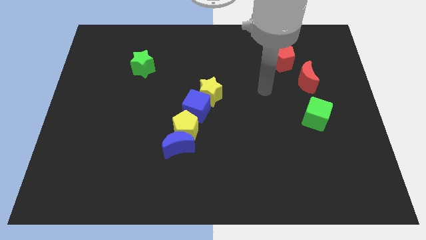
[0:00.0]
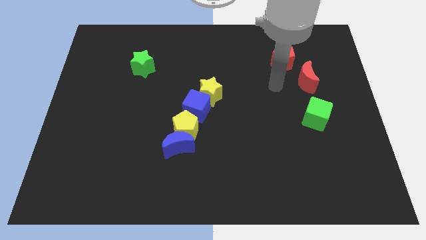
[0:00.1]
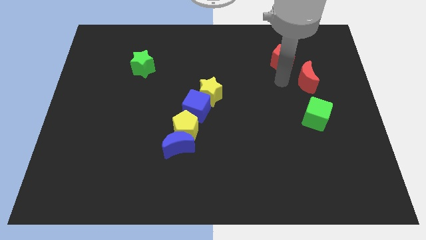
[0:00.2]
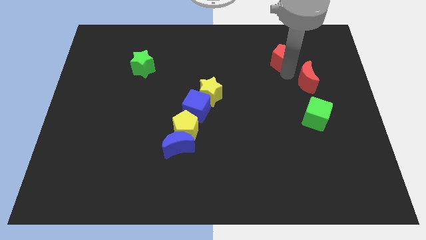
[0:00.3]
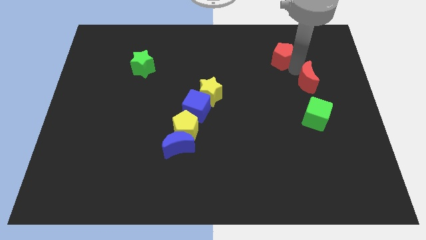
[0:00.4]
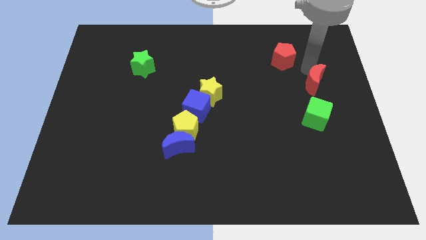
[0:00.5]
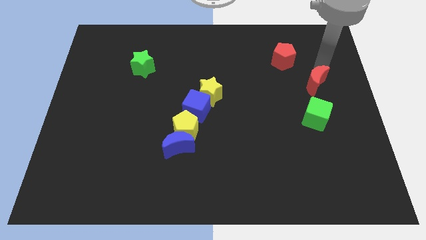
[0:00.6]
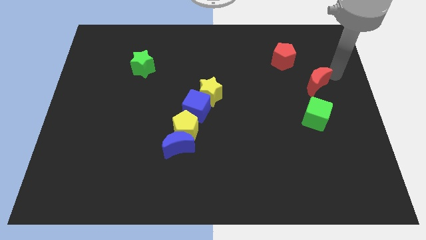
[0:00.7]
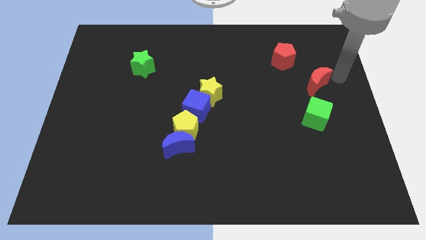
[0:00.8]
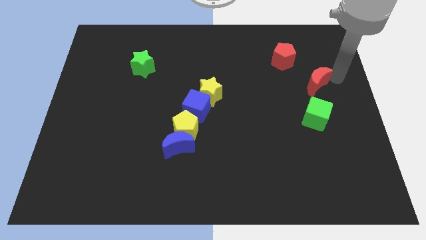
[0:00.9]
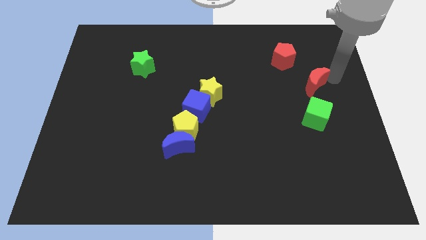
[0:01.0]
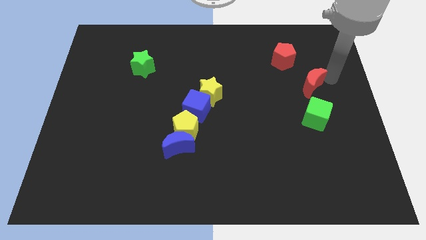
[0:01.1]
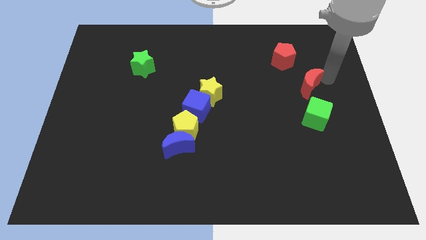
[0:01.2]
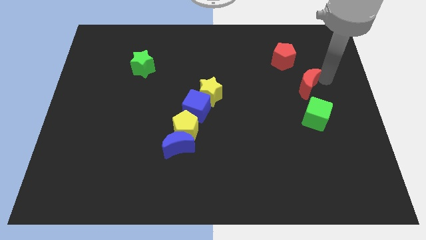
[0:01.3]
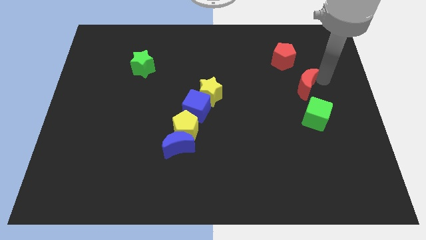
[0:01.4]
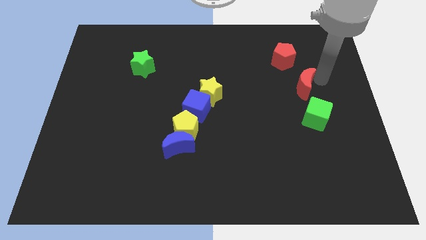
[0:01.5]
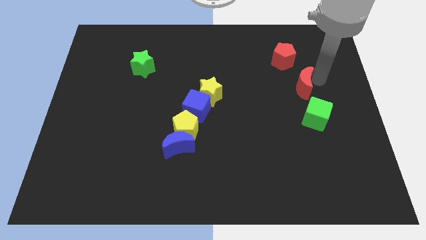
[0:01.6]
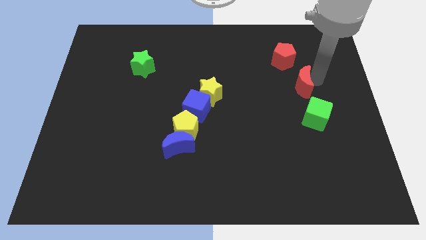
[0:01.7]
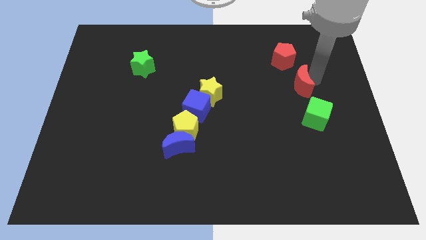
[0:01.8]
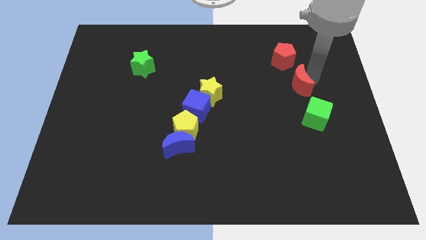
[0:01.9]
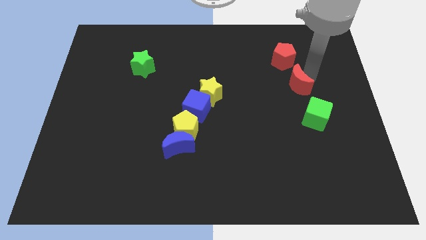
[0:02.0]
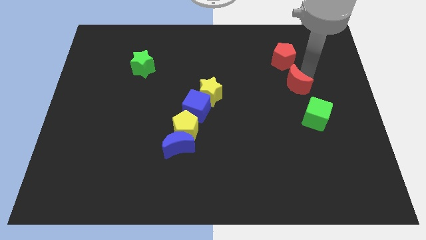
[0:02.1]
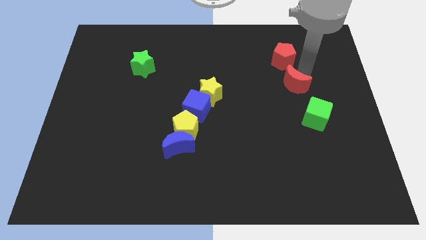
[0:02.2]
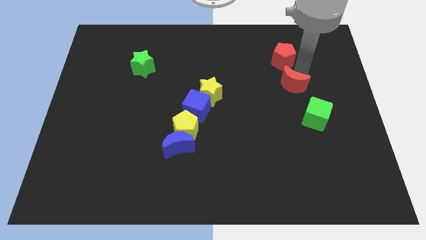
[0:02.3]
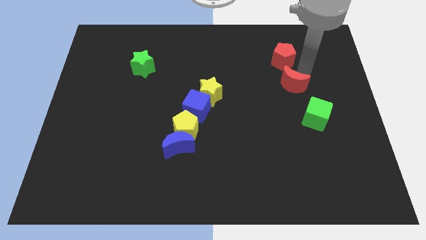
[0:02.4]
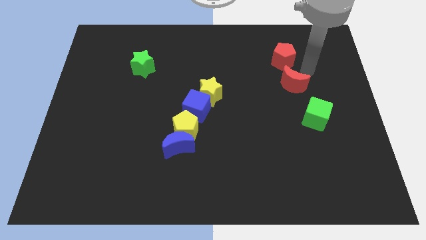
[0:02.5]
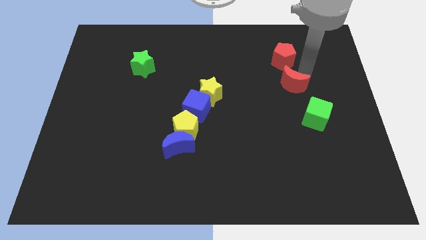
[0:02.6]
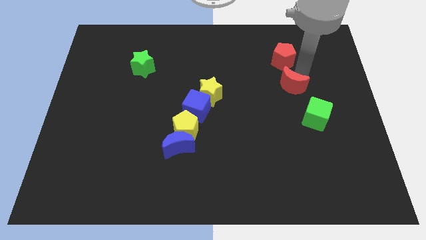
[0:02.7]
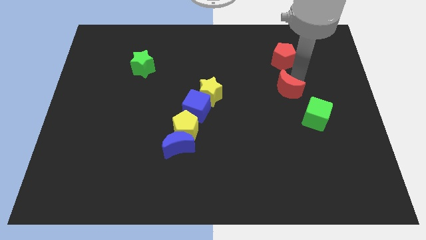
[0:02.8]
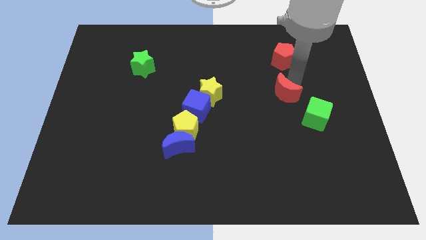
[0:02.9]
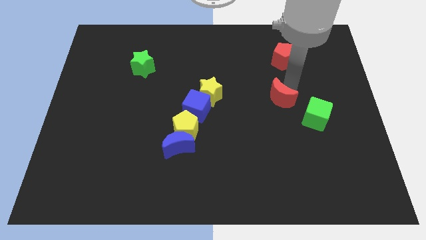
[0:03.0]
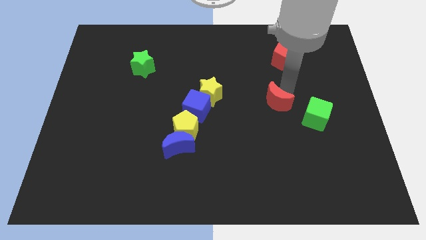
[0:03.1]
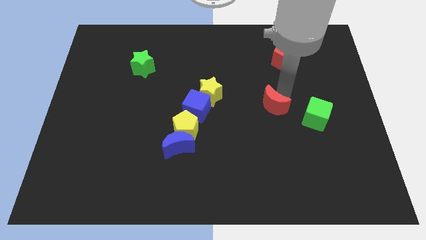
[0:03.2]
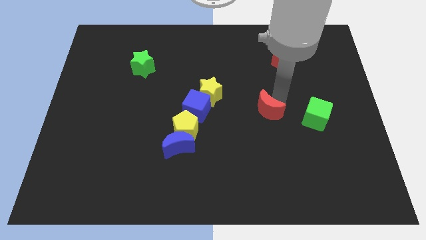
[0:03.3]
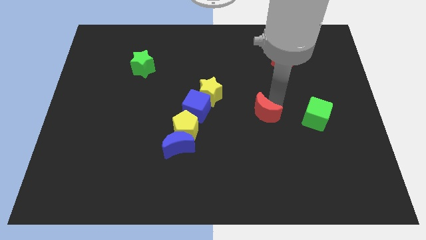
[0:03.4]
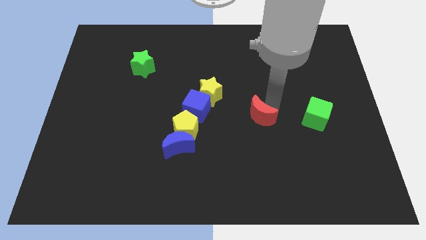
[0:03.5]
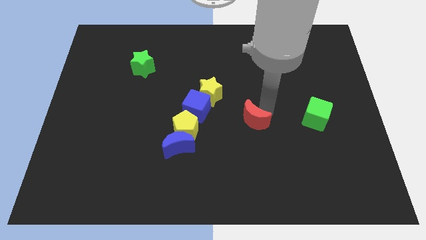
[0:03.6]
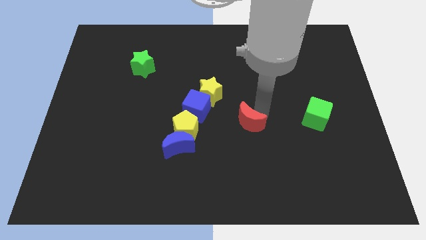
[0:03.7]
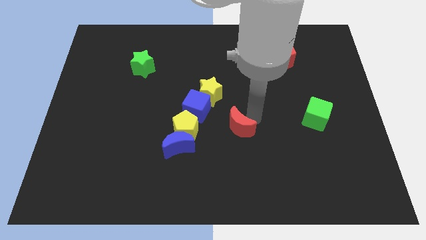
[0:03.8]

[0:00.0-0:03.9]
slide the red moon downwards and left diagonally

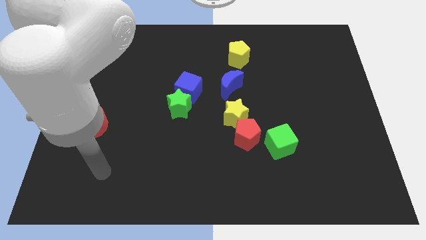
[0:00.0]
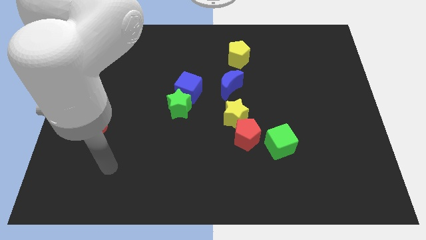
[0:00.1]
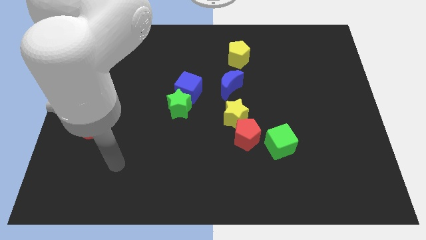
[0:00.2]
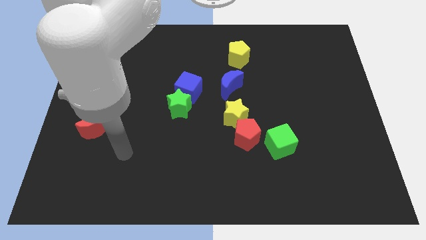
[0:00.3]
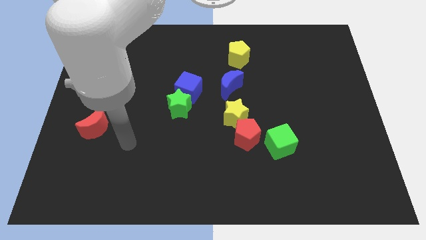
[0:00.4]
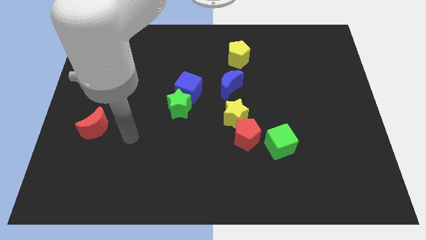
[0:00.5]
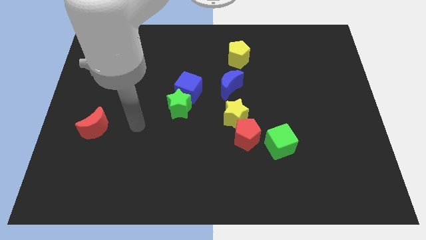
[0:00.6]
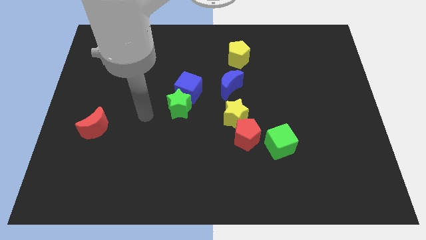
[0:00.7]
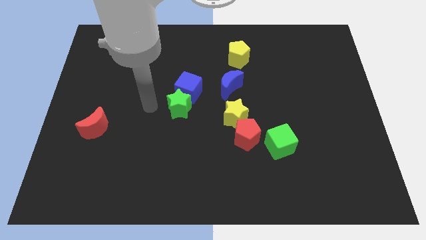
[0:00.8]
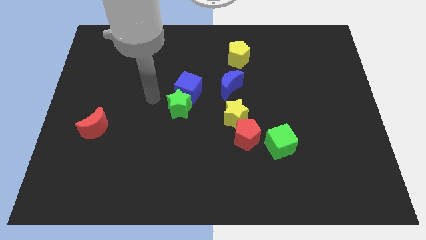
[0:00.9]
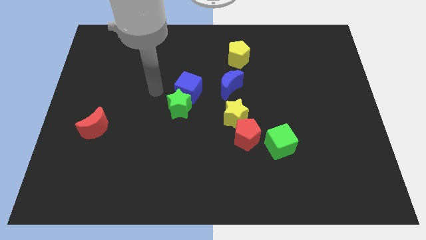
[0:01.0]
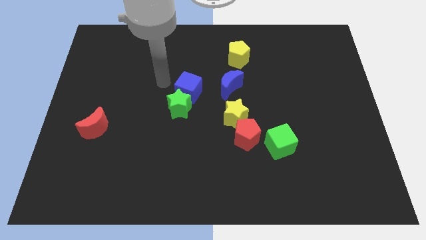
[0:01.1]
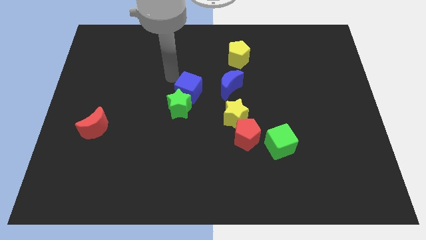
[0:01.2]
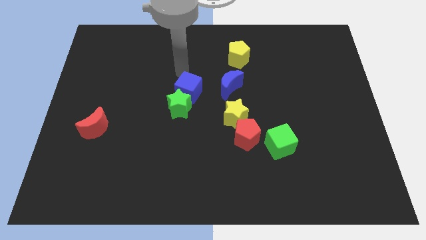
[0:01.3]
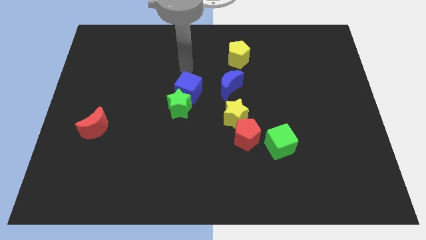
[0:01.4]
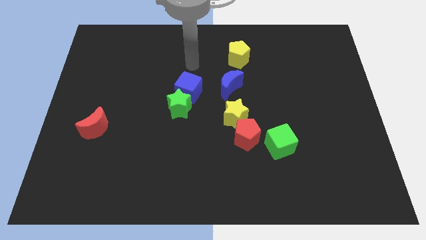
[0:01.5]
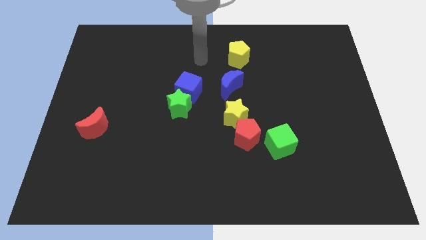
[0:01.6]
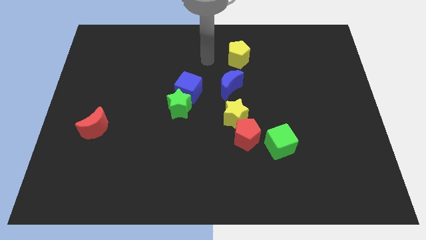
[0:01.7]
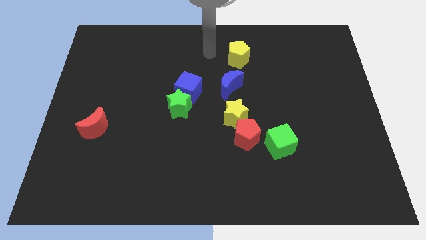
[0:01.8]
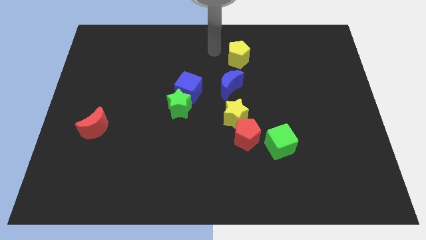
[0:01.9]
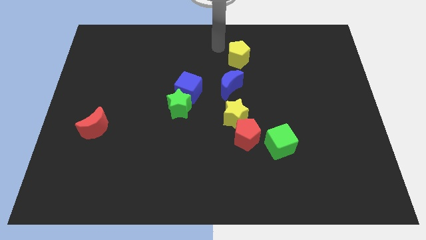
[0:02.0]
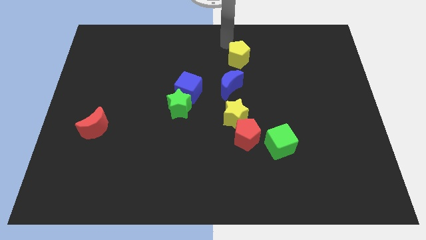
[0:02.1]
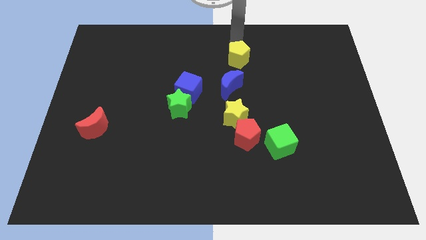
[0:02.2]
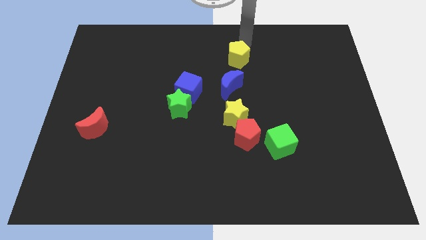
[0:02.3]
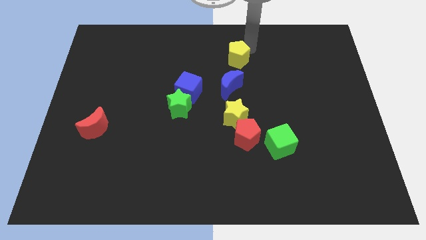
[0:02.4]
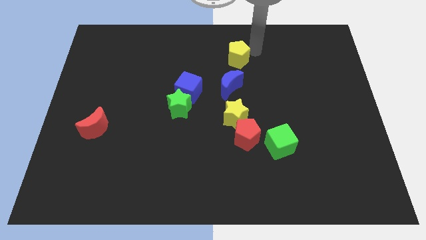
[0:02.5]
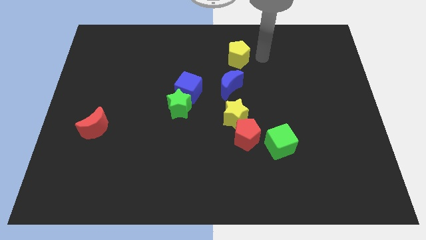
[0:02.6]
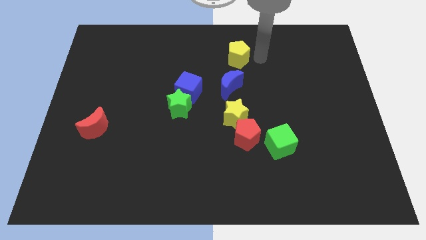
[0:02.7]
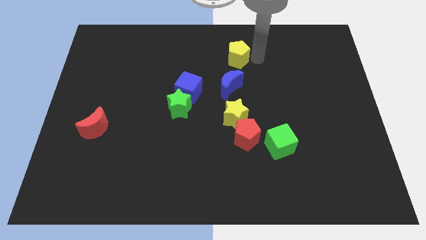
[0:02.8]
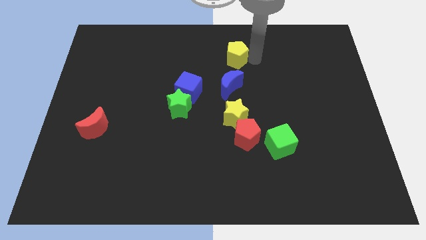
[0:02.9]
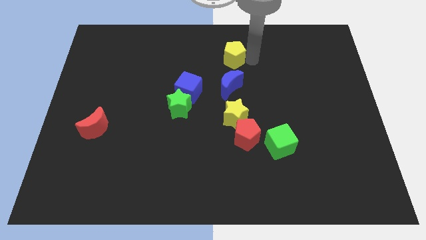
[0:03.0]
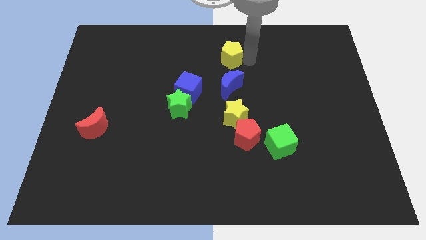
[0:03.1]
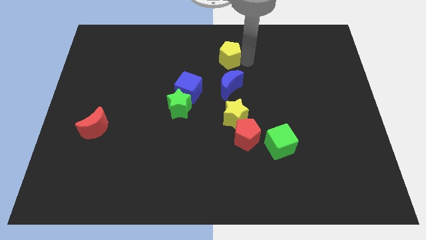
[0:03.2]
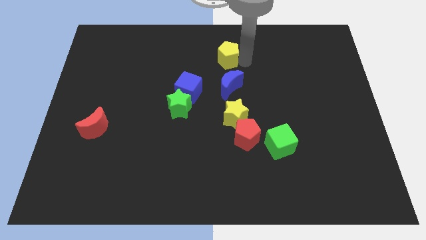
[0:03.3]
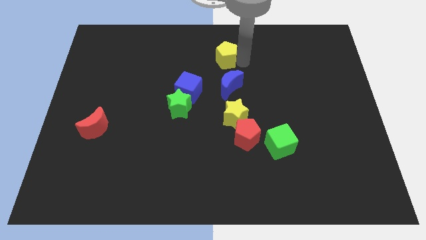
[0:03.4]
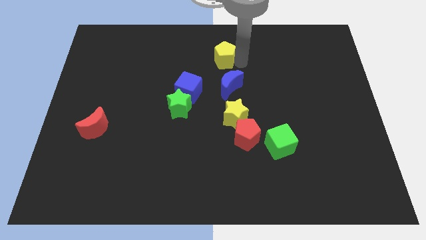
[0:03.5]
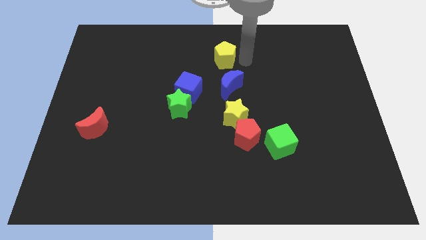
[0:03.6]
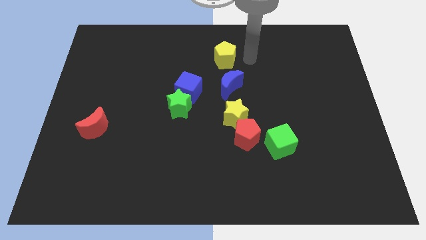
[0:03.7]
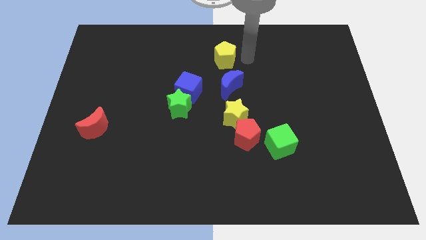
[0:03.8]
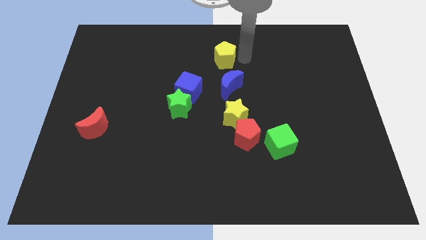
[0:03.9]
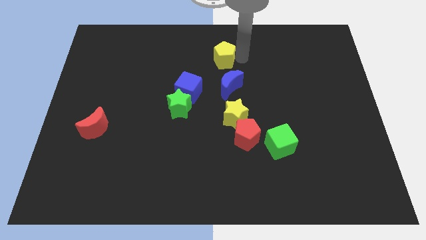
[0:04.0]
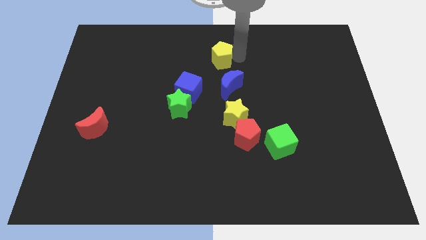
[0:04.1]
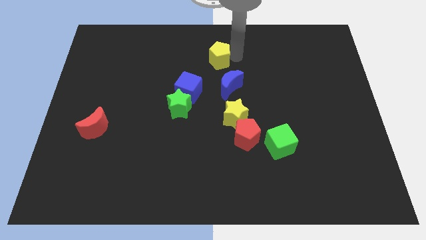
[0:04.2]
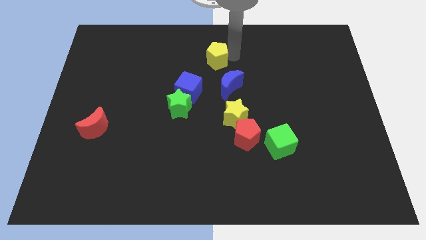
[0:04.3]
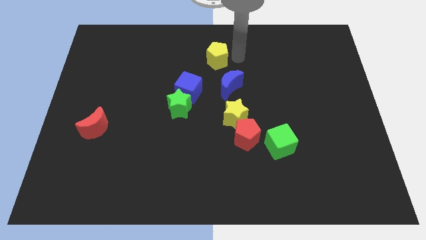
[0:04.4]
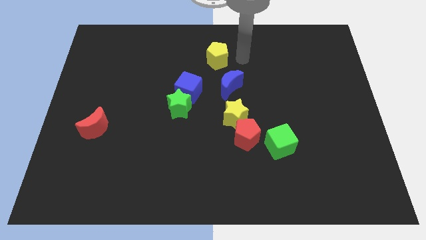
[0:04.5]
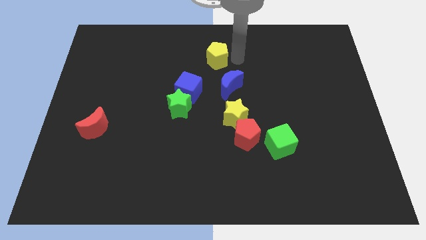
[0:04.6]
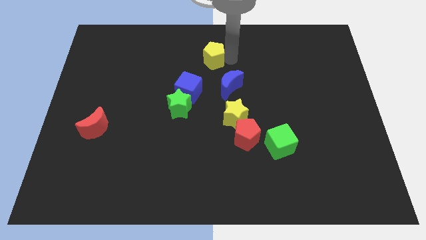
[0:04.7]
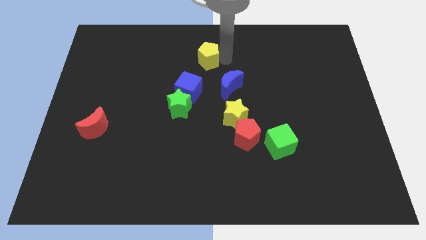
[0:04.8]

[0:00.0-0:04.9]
slightly slide the yellow pentagon left
